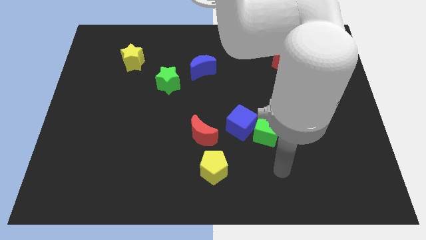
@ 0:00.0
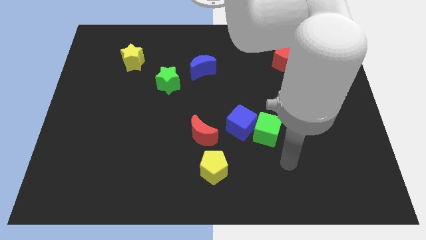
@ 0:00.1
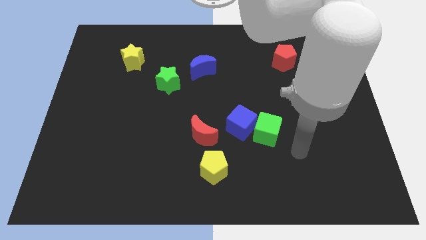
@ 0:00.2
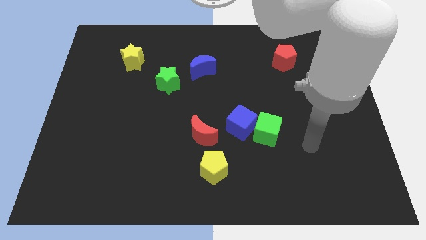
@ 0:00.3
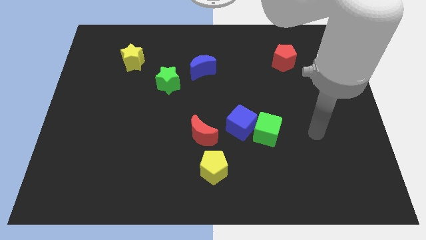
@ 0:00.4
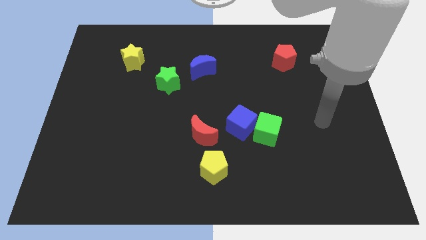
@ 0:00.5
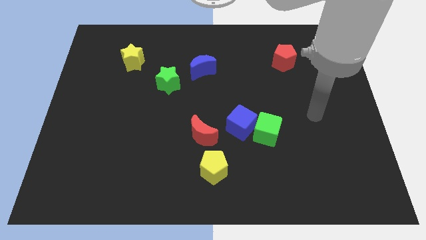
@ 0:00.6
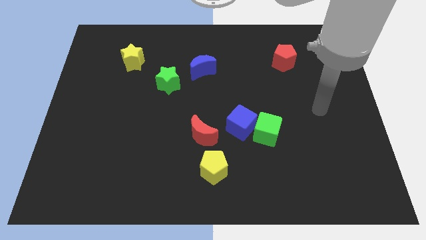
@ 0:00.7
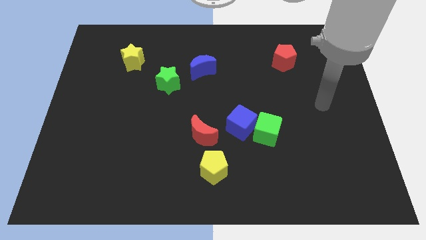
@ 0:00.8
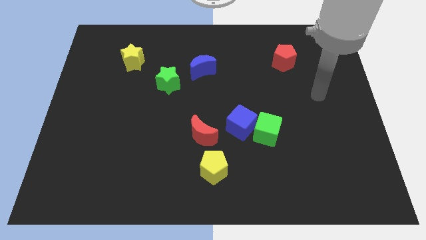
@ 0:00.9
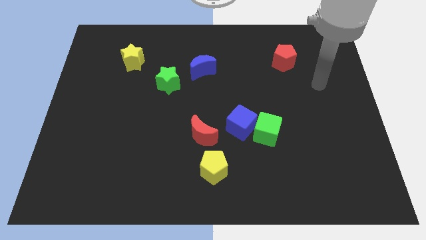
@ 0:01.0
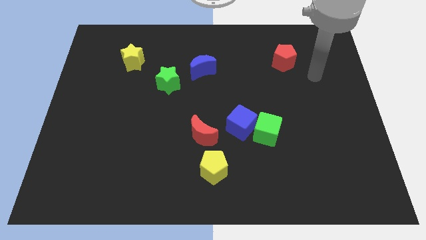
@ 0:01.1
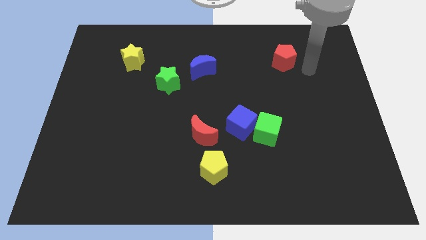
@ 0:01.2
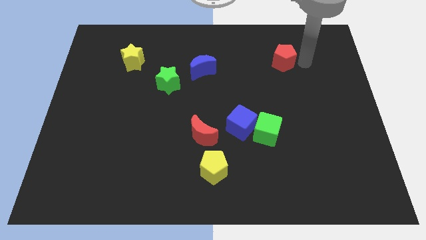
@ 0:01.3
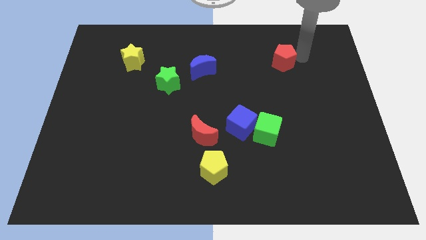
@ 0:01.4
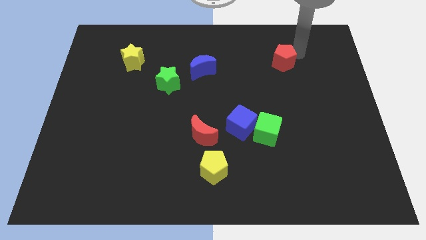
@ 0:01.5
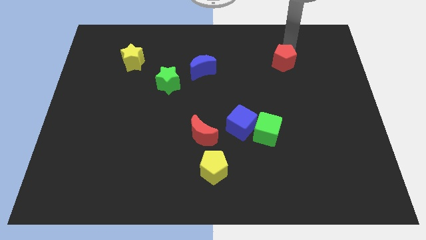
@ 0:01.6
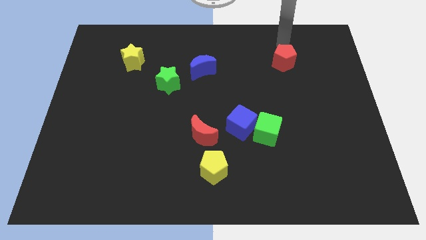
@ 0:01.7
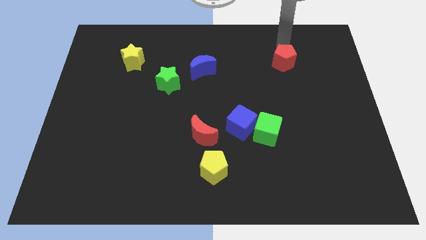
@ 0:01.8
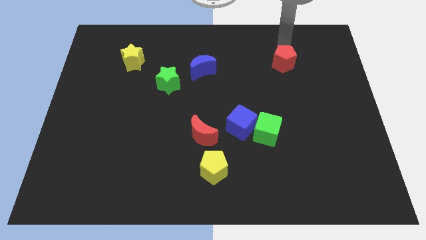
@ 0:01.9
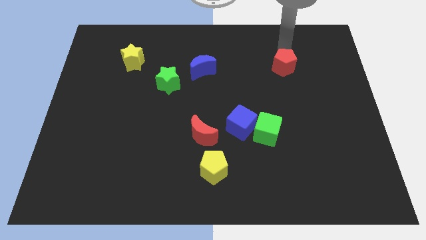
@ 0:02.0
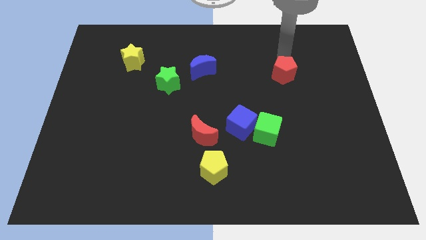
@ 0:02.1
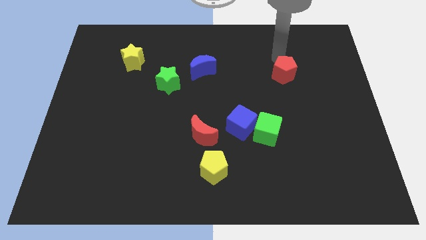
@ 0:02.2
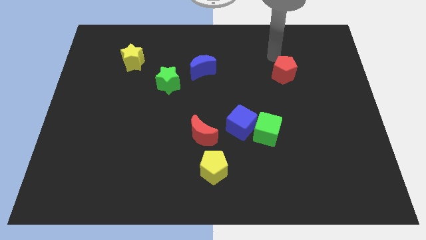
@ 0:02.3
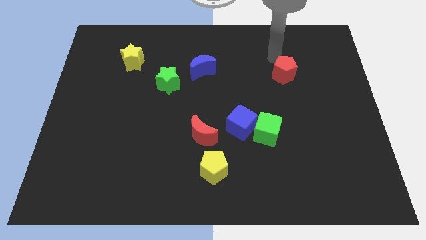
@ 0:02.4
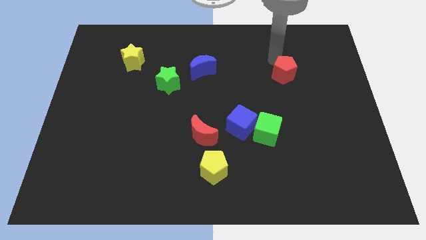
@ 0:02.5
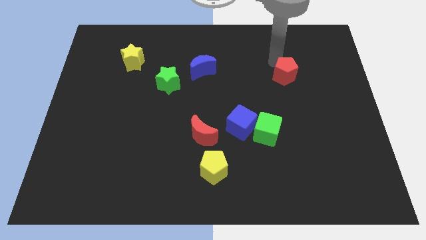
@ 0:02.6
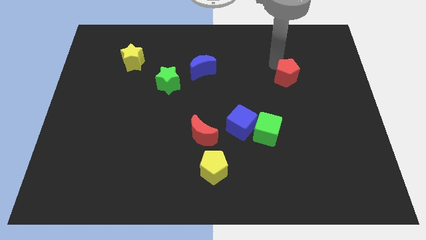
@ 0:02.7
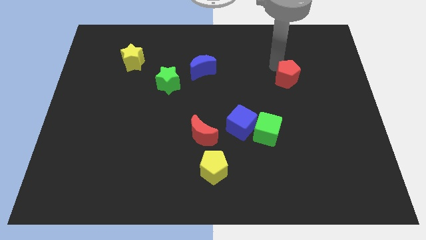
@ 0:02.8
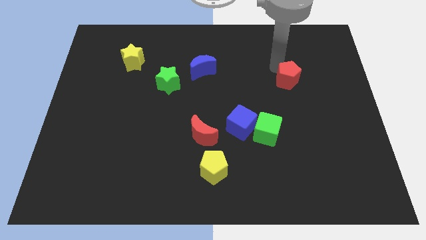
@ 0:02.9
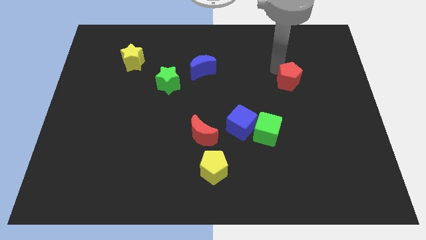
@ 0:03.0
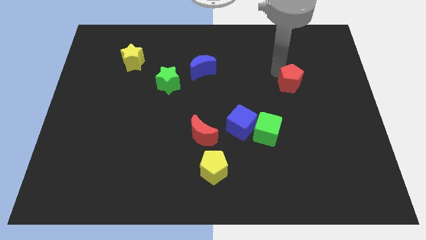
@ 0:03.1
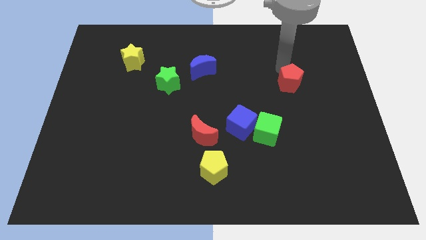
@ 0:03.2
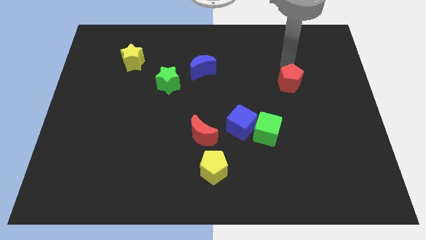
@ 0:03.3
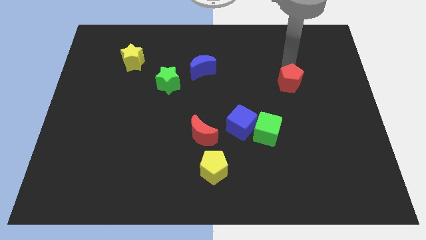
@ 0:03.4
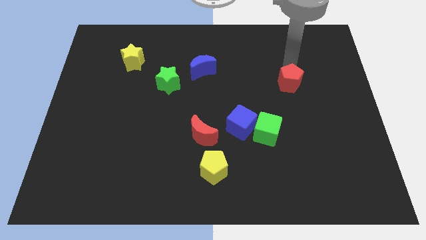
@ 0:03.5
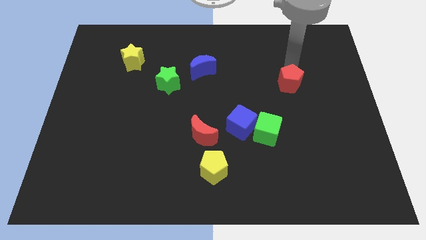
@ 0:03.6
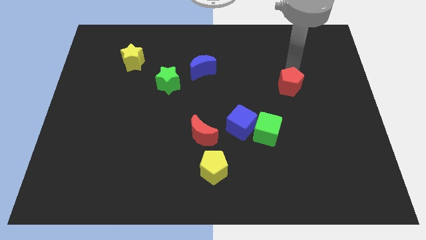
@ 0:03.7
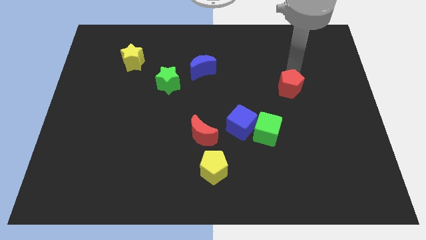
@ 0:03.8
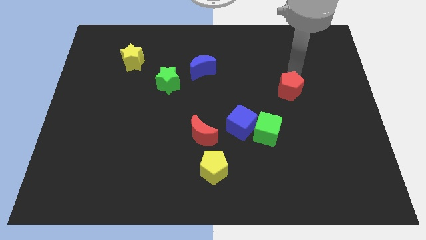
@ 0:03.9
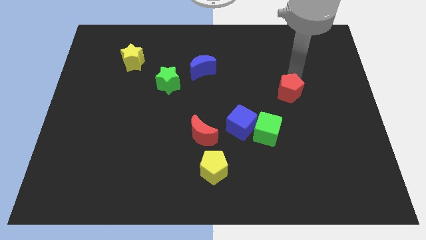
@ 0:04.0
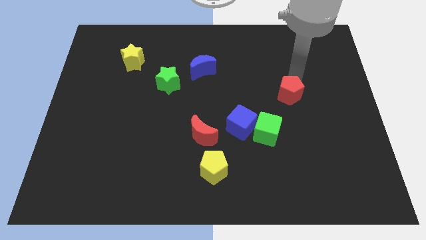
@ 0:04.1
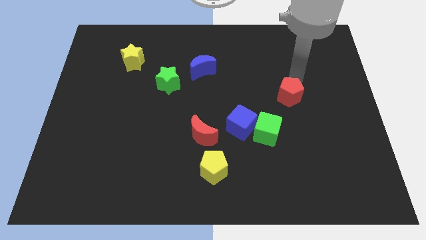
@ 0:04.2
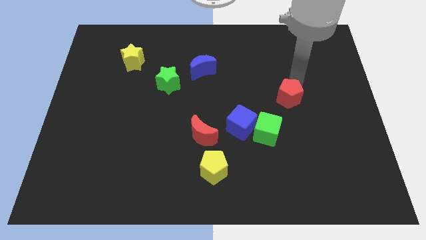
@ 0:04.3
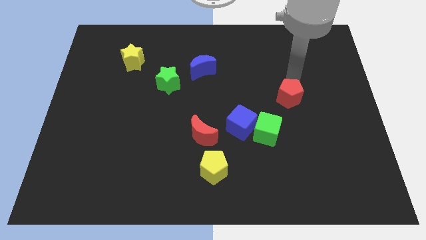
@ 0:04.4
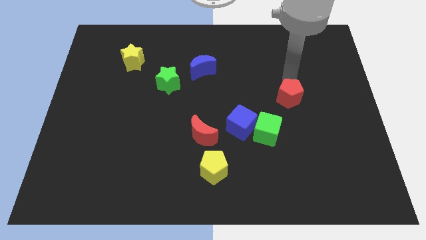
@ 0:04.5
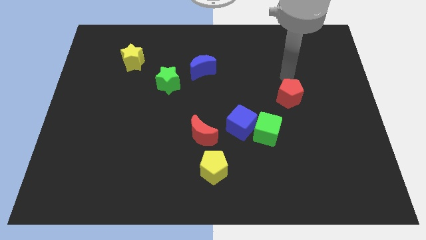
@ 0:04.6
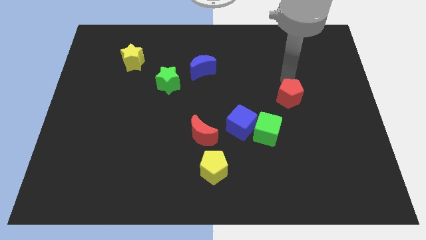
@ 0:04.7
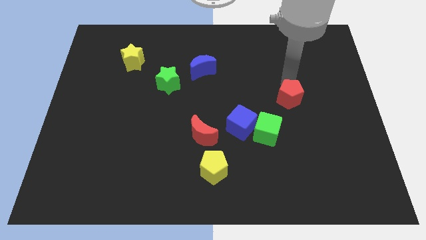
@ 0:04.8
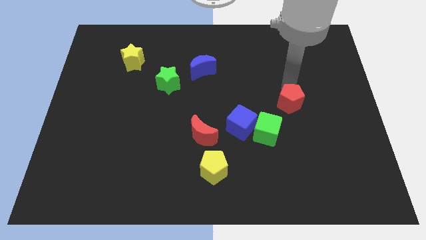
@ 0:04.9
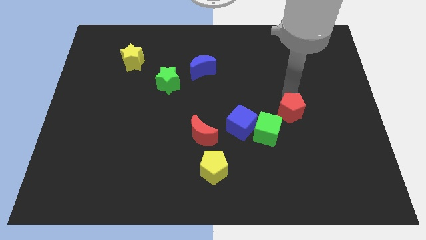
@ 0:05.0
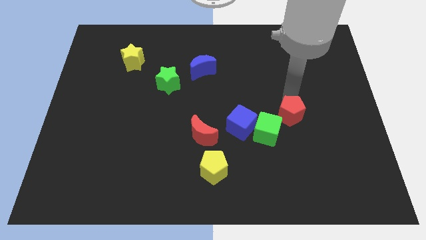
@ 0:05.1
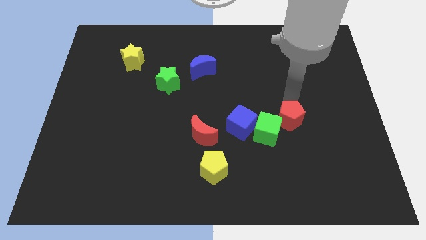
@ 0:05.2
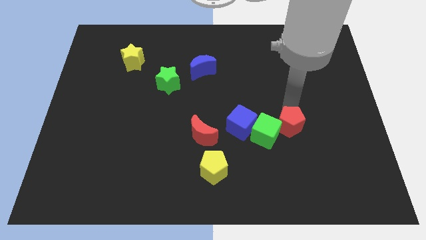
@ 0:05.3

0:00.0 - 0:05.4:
push the red pentagon downwards

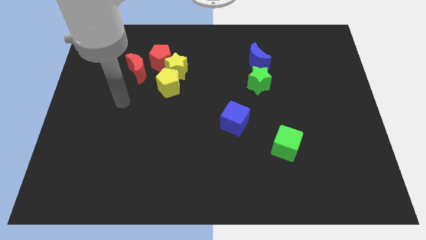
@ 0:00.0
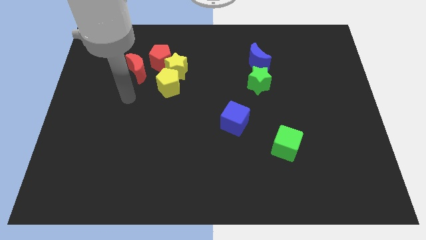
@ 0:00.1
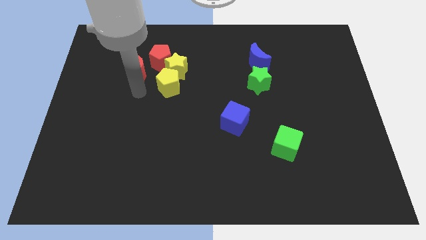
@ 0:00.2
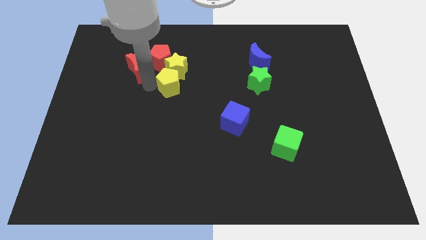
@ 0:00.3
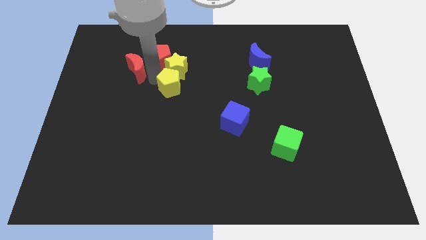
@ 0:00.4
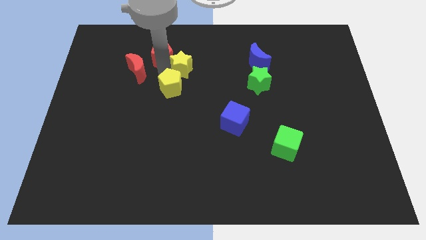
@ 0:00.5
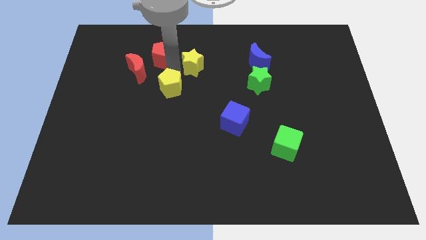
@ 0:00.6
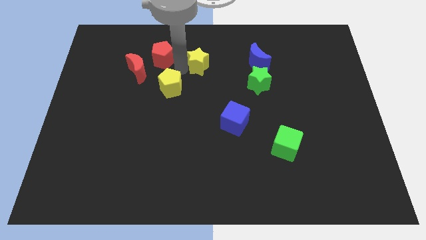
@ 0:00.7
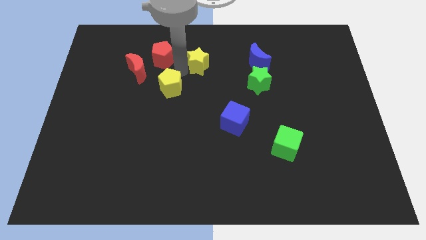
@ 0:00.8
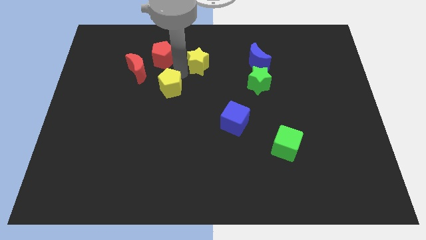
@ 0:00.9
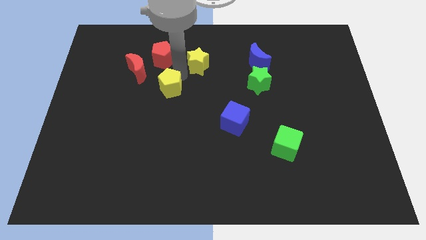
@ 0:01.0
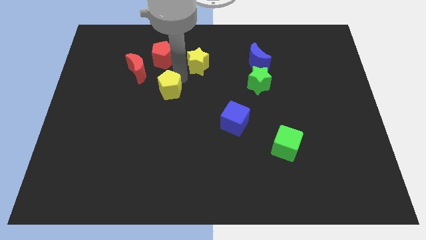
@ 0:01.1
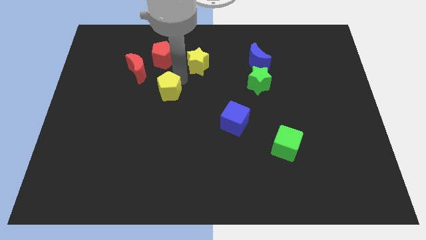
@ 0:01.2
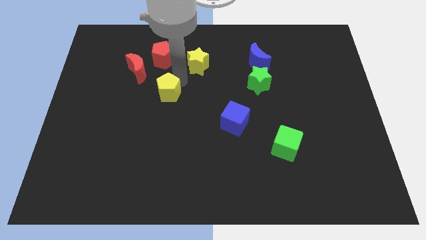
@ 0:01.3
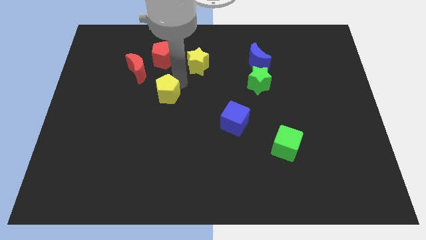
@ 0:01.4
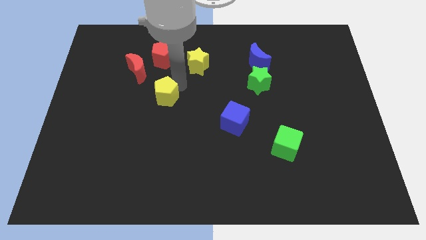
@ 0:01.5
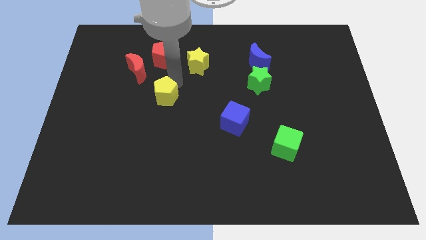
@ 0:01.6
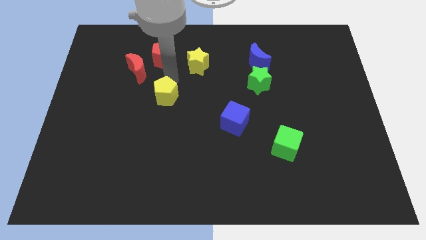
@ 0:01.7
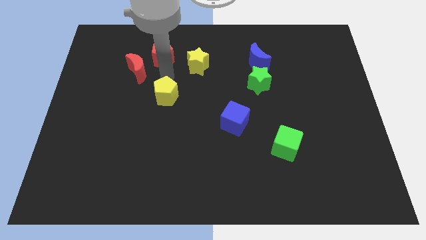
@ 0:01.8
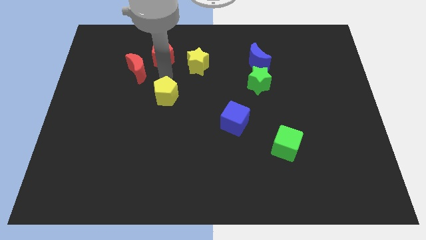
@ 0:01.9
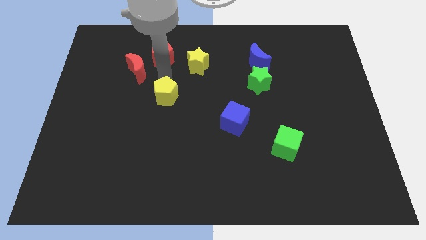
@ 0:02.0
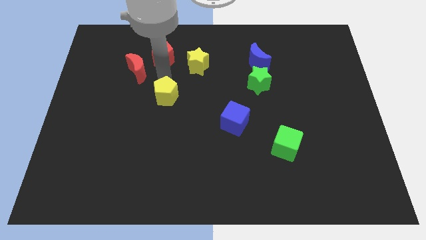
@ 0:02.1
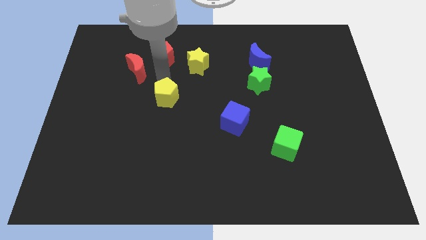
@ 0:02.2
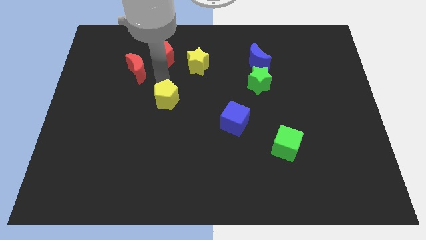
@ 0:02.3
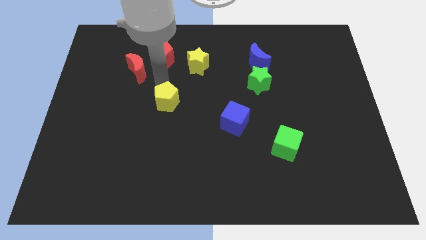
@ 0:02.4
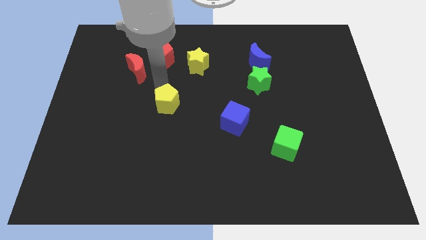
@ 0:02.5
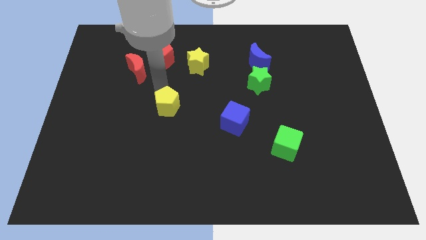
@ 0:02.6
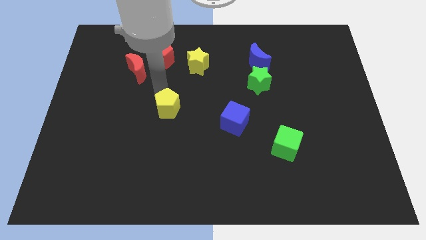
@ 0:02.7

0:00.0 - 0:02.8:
move the yellow pentagon a little down

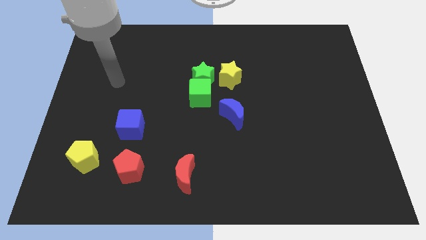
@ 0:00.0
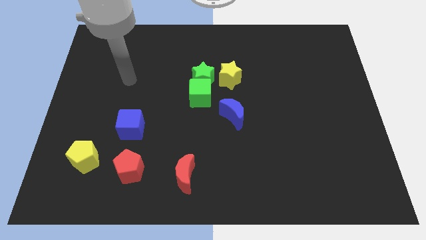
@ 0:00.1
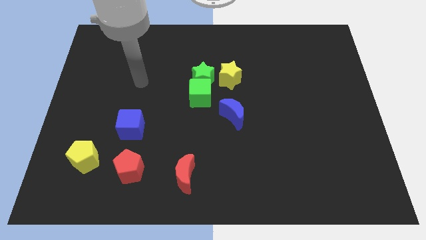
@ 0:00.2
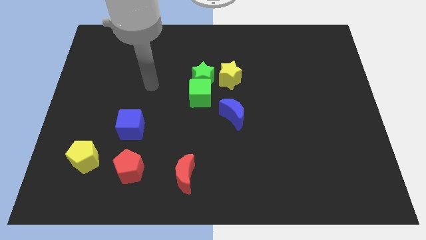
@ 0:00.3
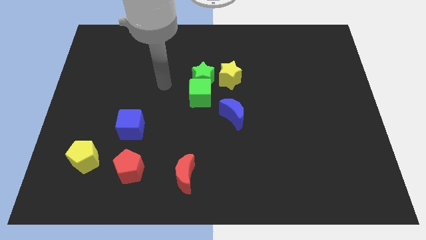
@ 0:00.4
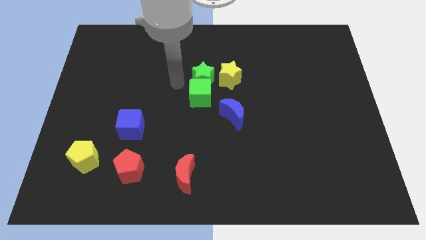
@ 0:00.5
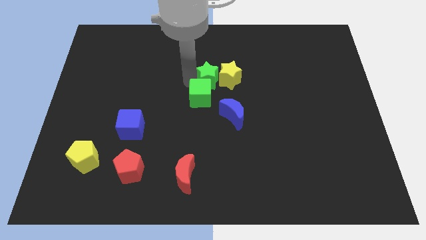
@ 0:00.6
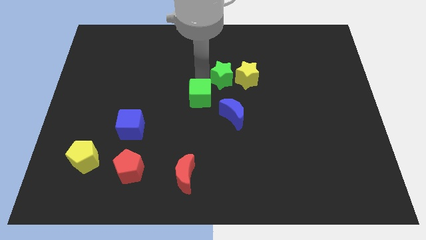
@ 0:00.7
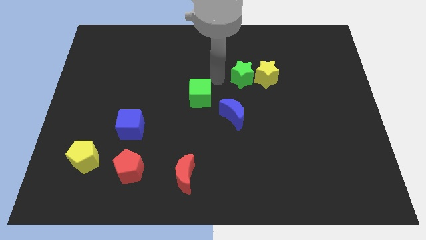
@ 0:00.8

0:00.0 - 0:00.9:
slightly move the yellow star to the right
